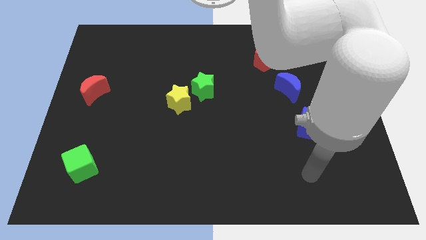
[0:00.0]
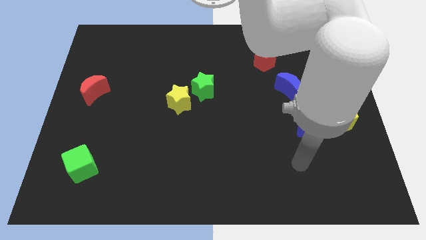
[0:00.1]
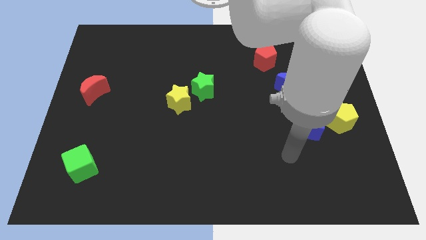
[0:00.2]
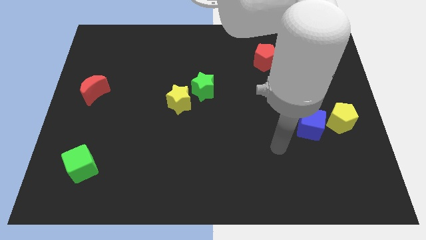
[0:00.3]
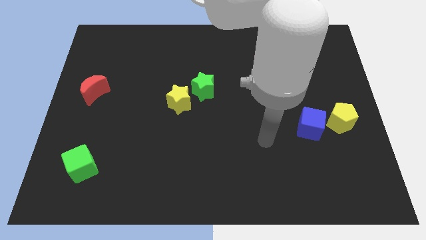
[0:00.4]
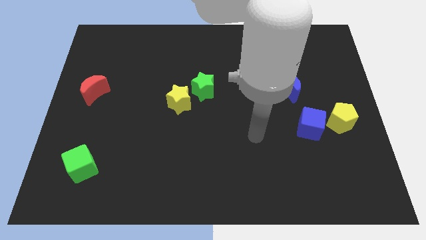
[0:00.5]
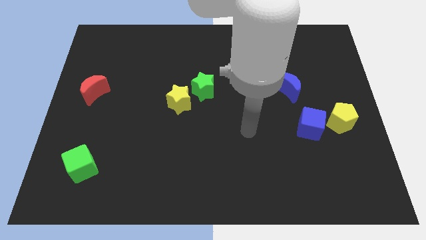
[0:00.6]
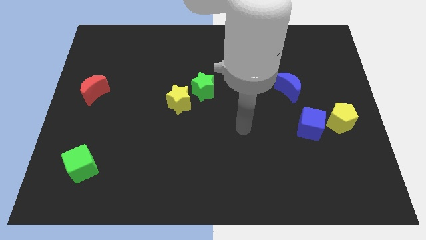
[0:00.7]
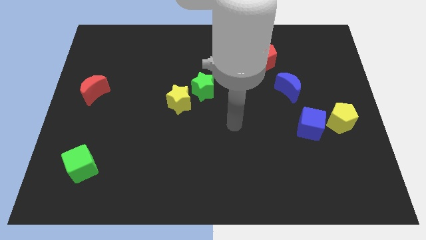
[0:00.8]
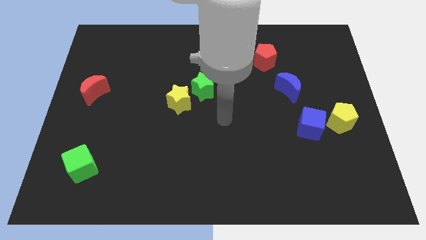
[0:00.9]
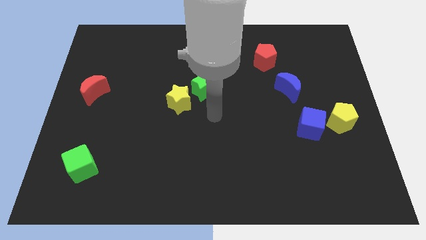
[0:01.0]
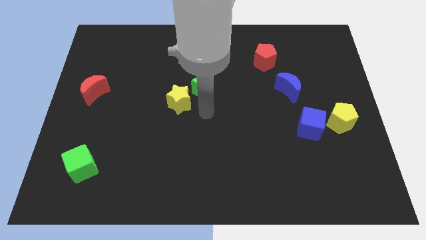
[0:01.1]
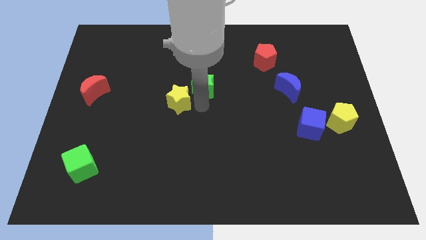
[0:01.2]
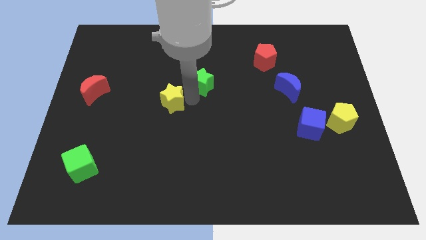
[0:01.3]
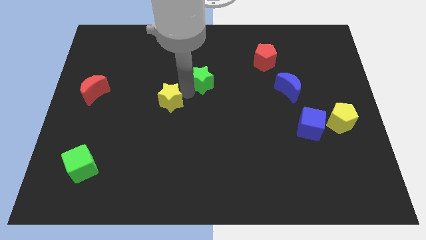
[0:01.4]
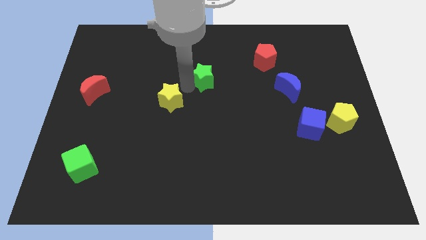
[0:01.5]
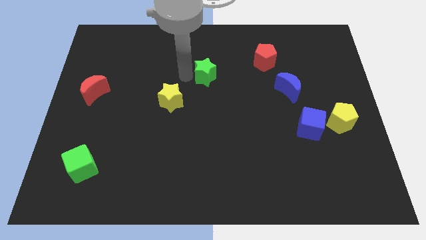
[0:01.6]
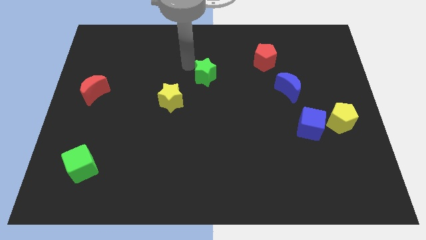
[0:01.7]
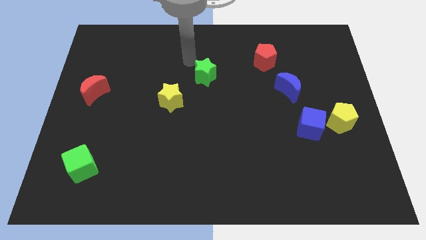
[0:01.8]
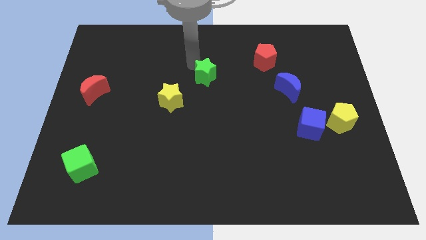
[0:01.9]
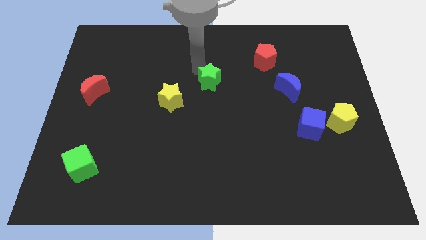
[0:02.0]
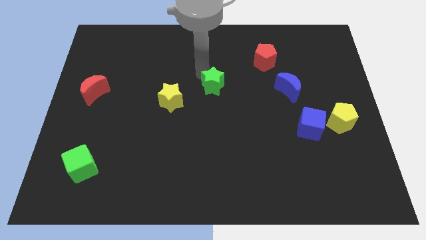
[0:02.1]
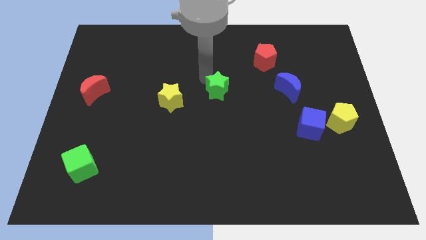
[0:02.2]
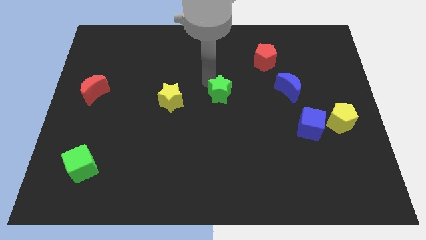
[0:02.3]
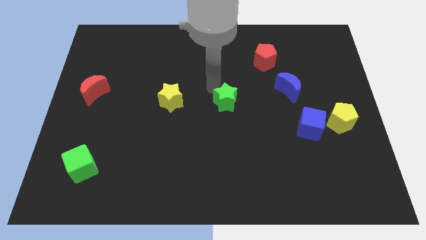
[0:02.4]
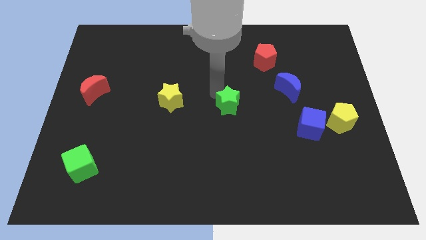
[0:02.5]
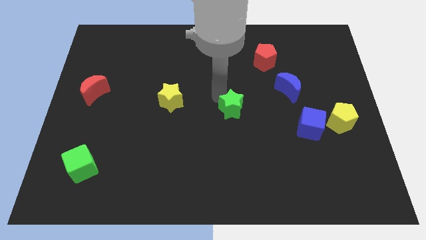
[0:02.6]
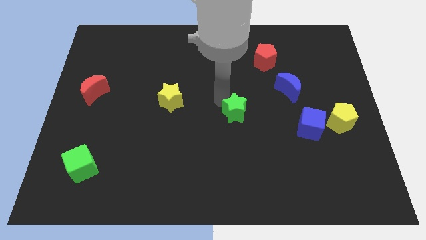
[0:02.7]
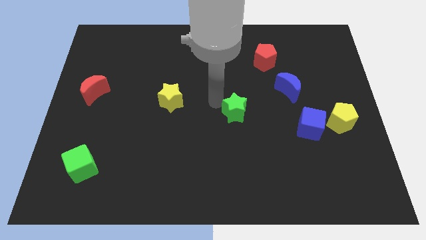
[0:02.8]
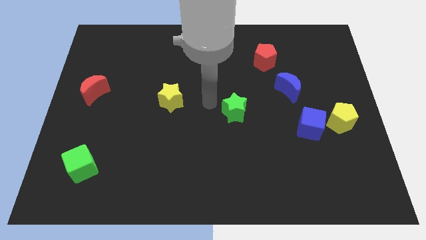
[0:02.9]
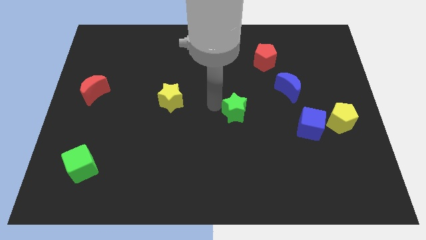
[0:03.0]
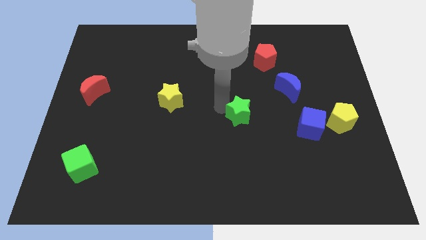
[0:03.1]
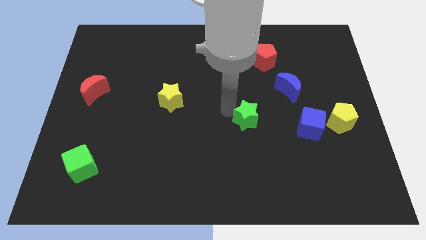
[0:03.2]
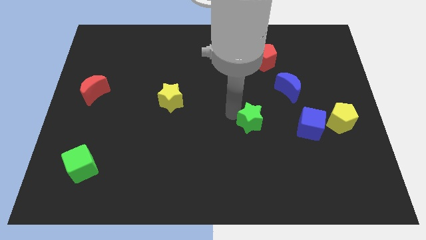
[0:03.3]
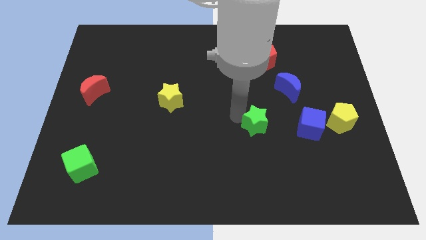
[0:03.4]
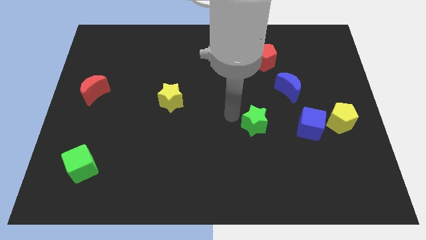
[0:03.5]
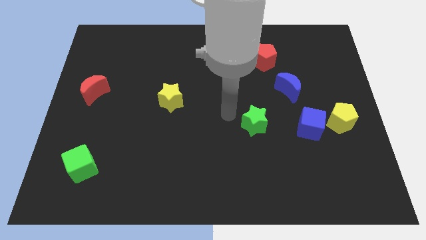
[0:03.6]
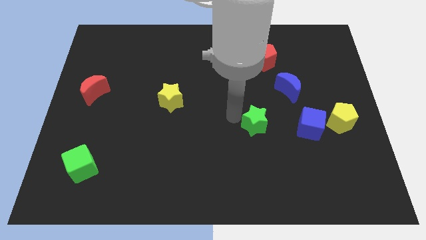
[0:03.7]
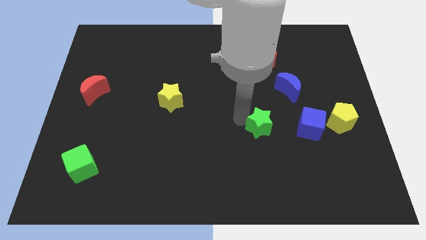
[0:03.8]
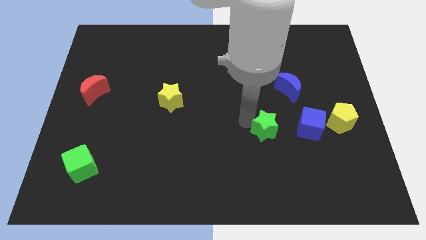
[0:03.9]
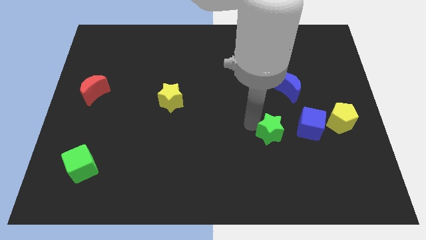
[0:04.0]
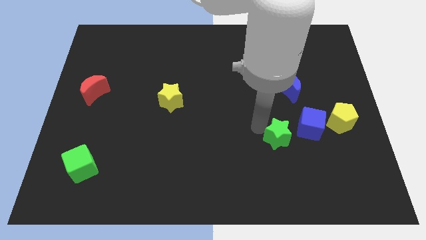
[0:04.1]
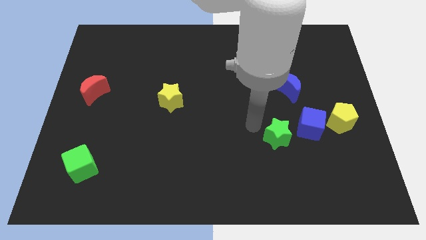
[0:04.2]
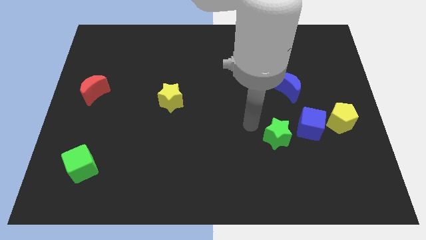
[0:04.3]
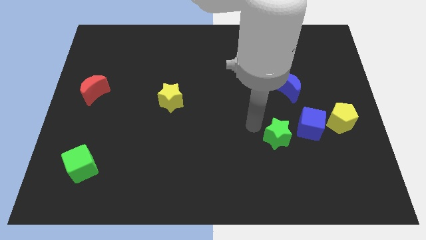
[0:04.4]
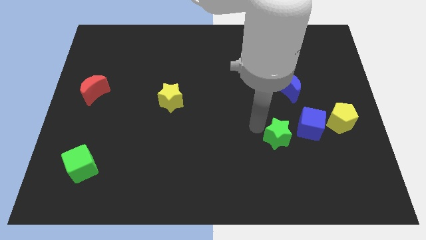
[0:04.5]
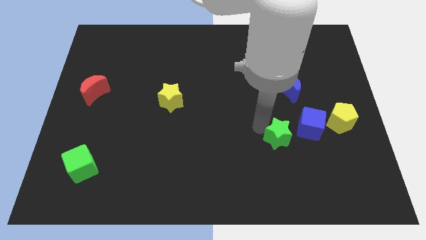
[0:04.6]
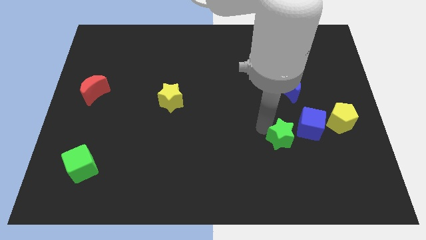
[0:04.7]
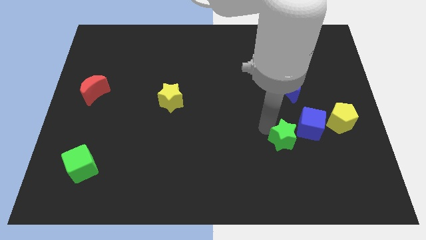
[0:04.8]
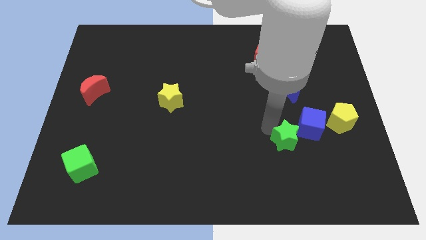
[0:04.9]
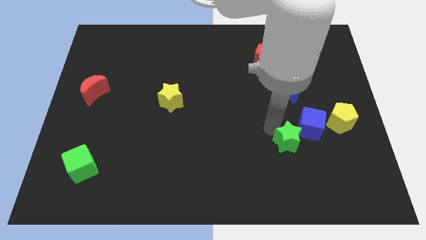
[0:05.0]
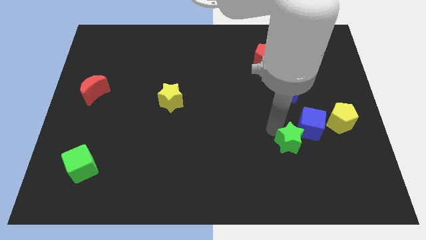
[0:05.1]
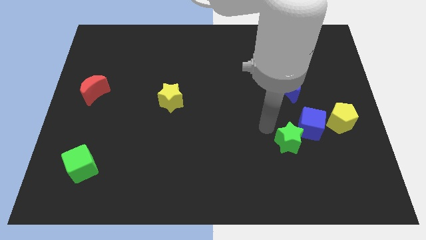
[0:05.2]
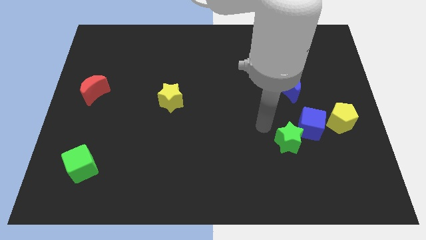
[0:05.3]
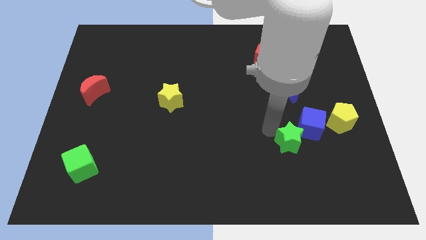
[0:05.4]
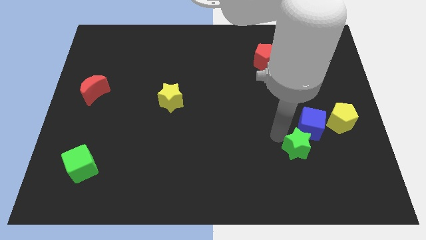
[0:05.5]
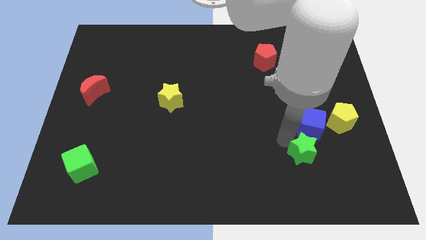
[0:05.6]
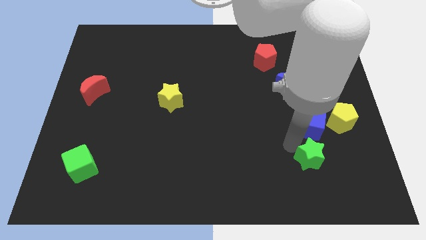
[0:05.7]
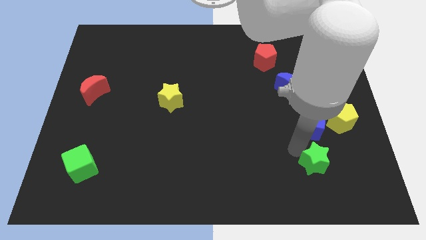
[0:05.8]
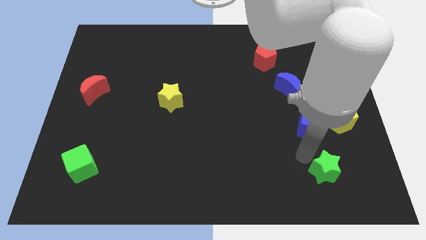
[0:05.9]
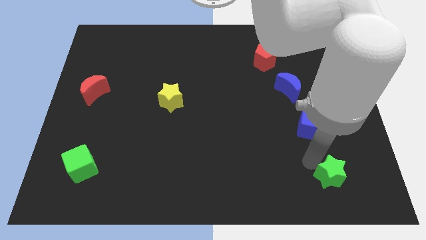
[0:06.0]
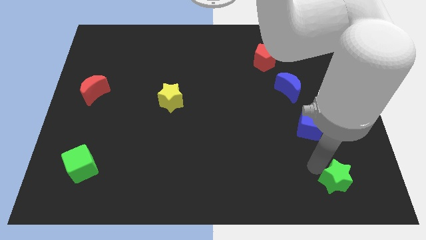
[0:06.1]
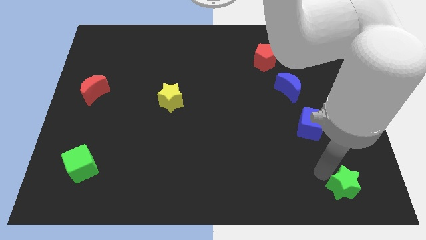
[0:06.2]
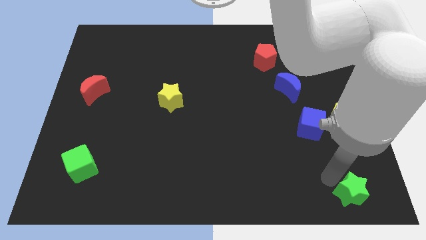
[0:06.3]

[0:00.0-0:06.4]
slide the green star to the bottom right corner
